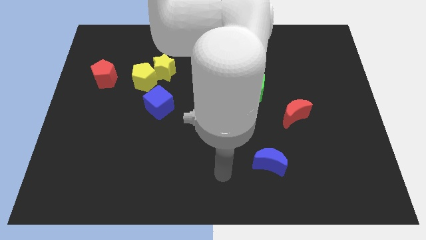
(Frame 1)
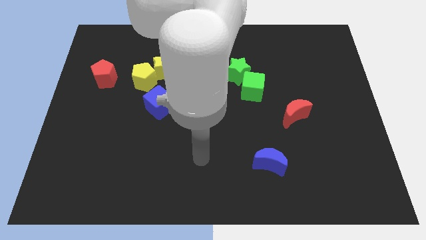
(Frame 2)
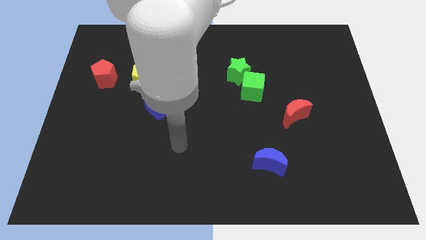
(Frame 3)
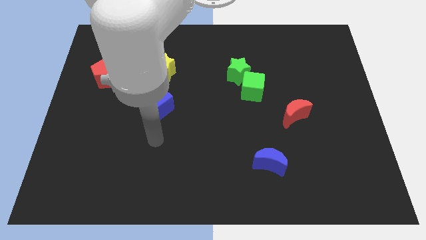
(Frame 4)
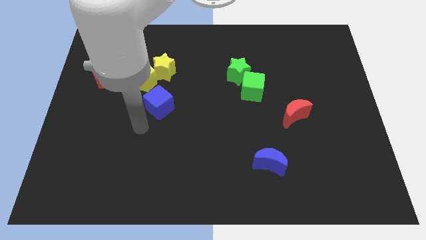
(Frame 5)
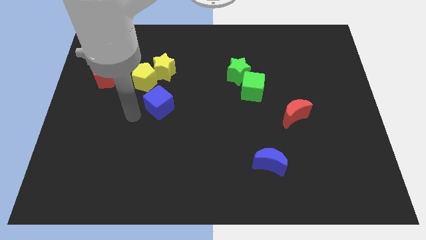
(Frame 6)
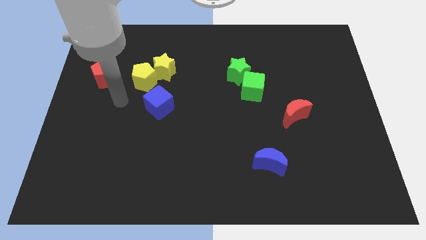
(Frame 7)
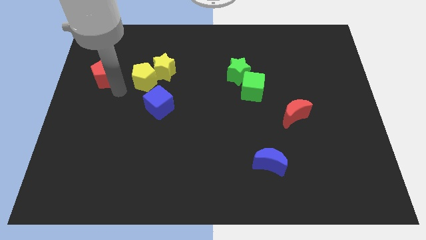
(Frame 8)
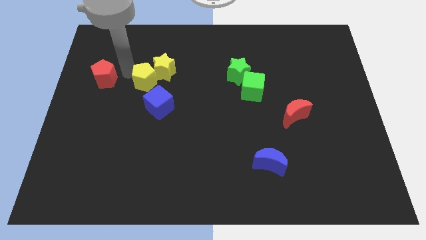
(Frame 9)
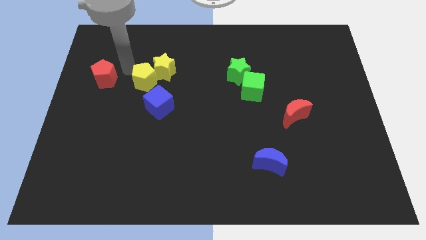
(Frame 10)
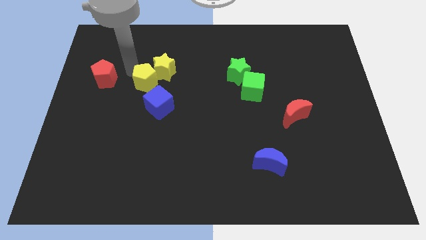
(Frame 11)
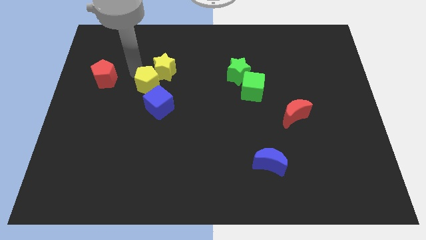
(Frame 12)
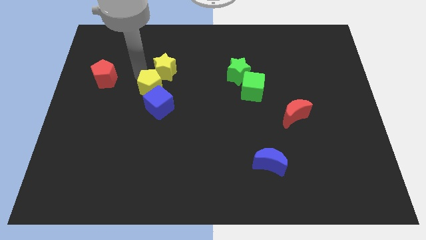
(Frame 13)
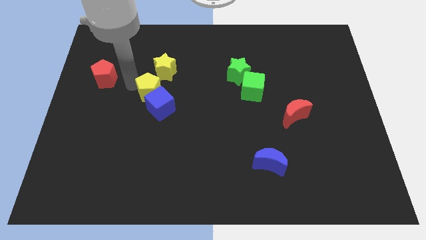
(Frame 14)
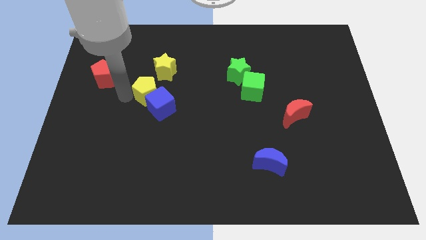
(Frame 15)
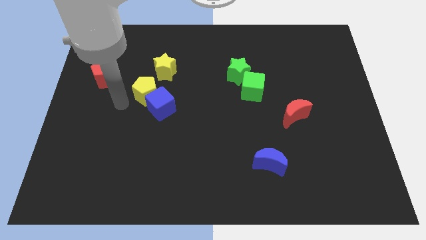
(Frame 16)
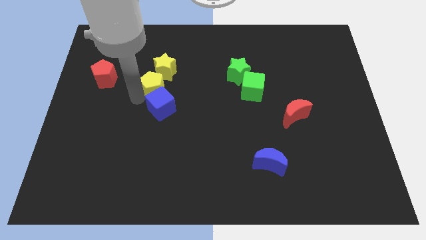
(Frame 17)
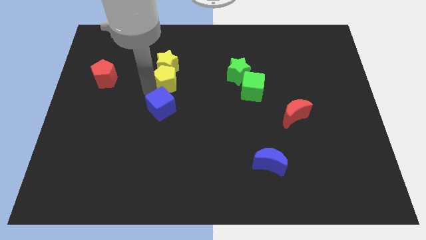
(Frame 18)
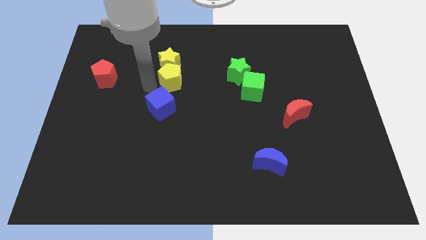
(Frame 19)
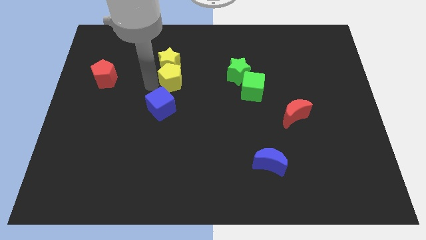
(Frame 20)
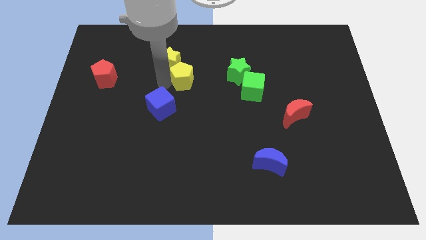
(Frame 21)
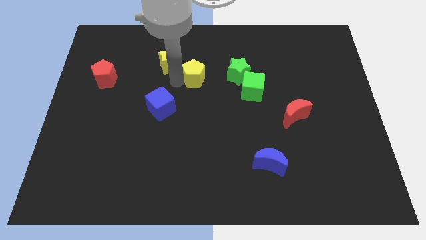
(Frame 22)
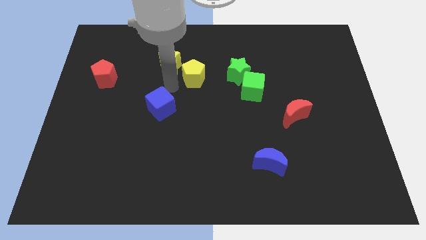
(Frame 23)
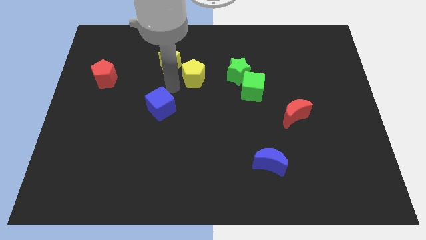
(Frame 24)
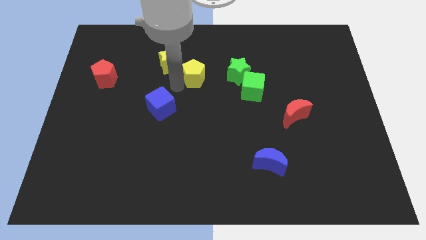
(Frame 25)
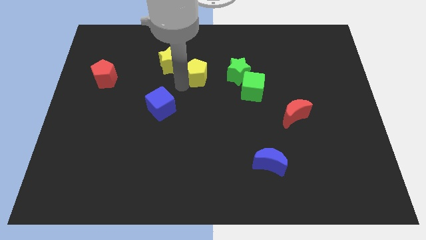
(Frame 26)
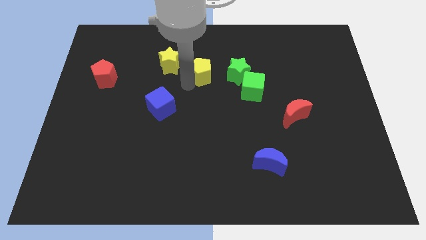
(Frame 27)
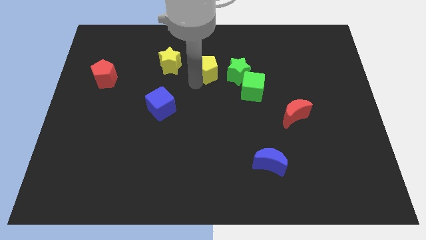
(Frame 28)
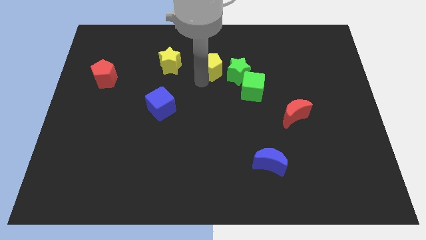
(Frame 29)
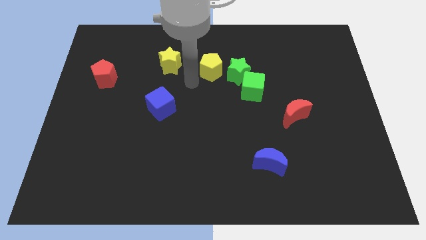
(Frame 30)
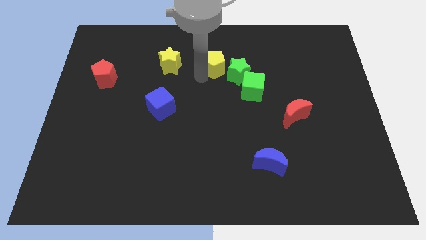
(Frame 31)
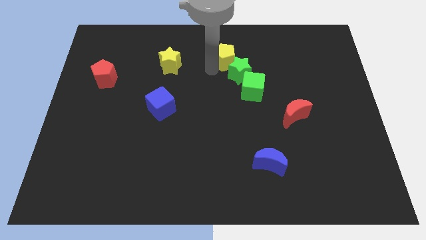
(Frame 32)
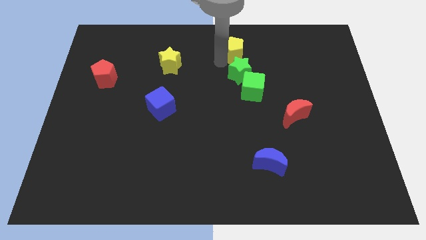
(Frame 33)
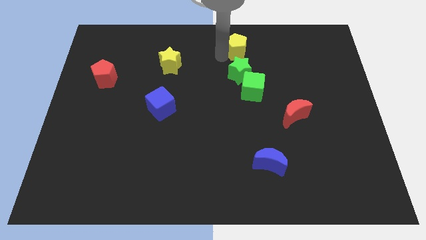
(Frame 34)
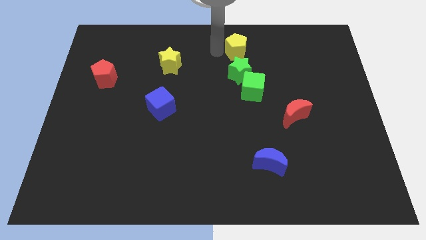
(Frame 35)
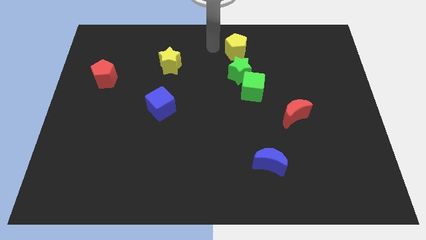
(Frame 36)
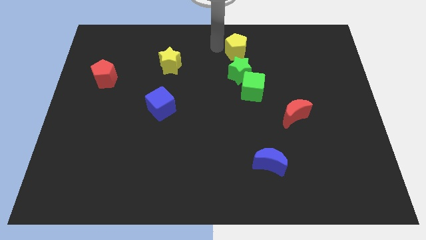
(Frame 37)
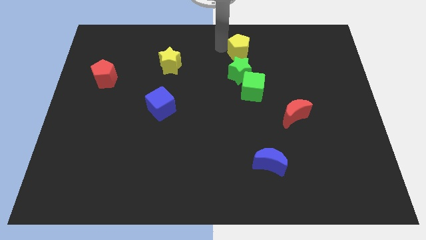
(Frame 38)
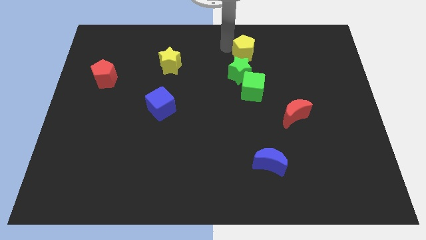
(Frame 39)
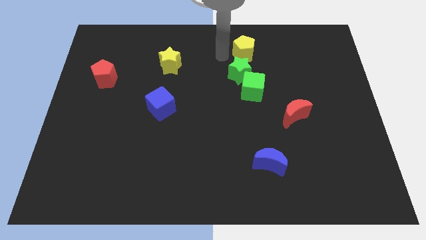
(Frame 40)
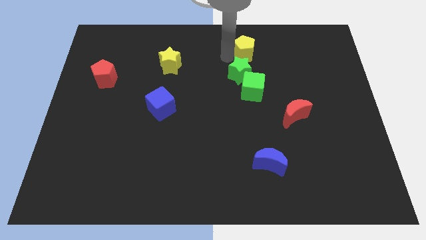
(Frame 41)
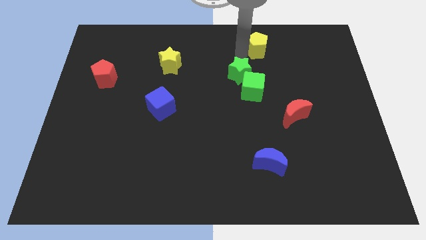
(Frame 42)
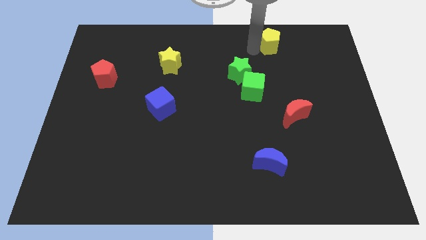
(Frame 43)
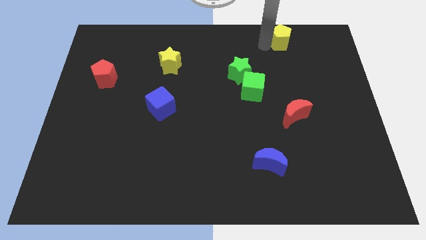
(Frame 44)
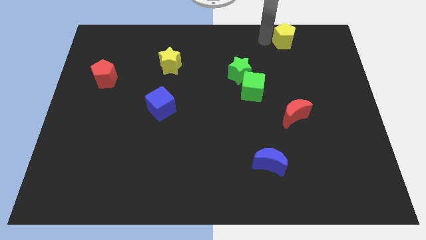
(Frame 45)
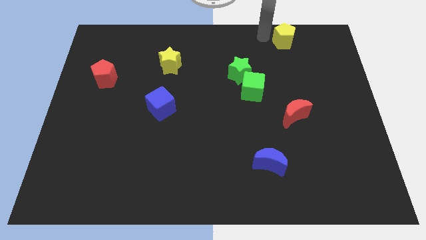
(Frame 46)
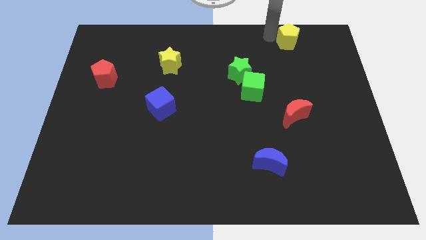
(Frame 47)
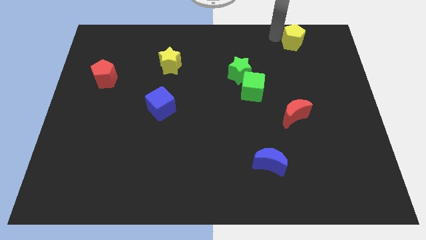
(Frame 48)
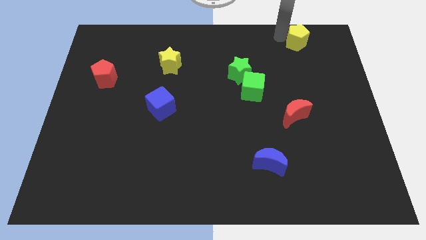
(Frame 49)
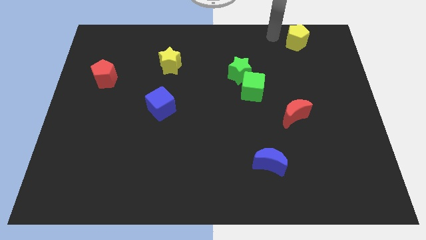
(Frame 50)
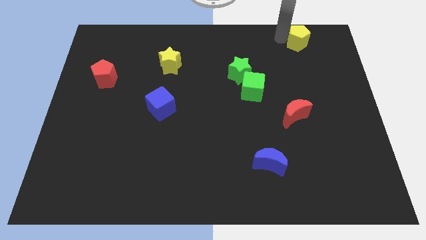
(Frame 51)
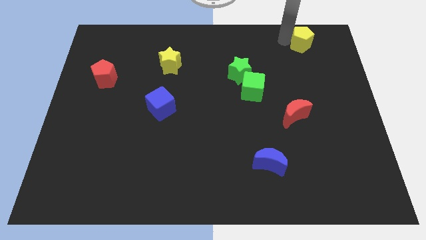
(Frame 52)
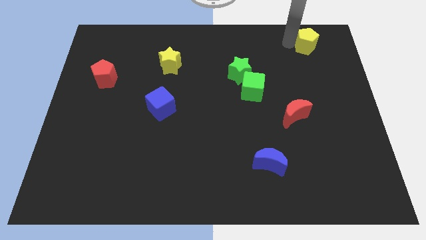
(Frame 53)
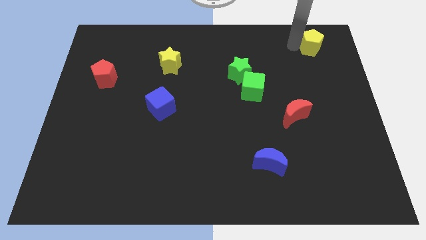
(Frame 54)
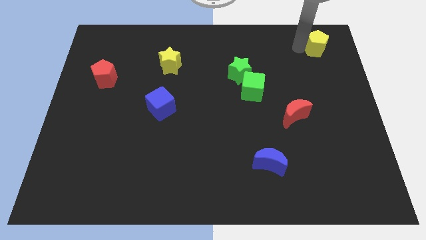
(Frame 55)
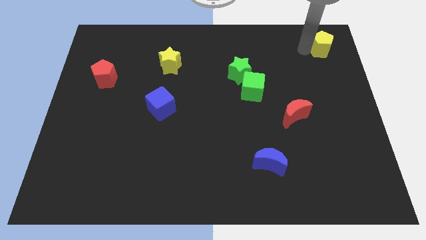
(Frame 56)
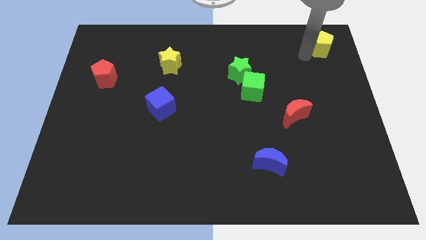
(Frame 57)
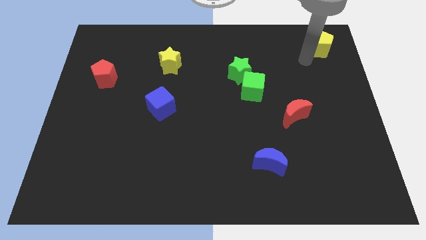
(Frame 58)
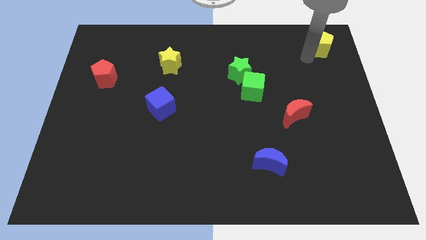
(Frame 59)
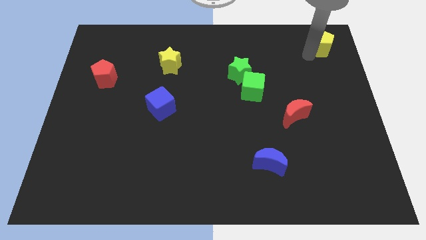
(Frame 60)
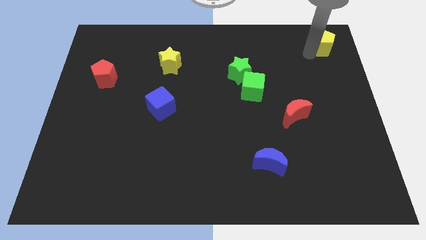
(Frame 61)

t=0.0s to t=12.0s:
push the yellow pentagon to the top right corner
